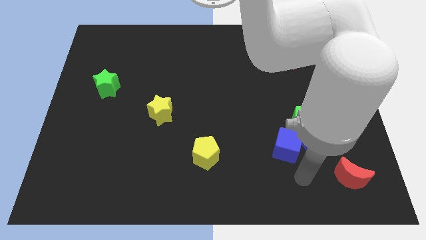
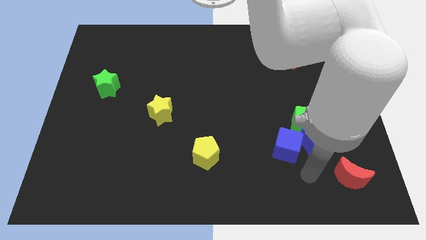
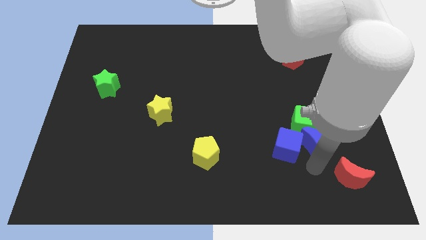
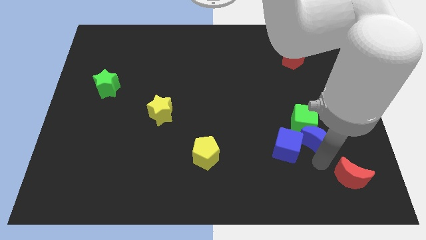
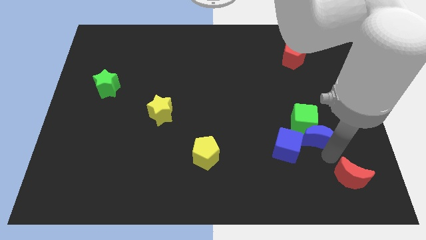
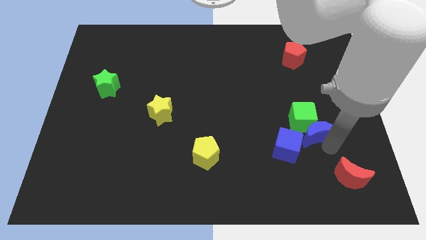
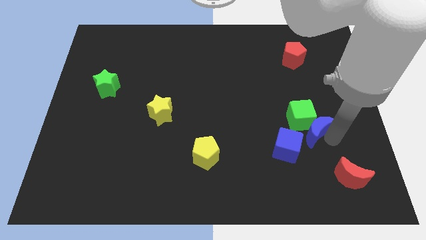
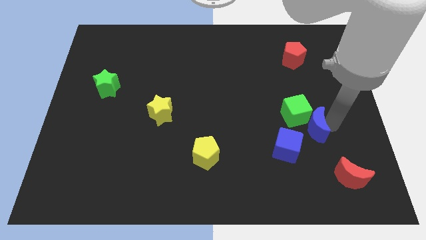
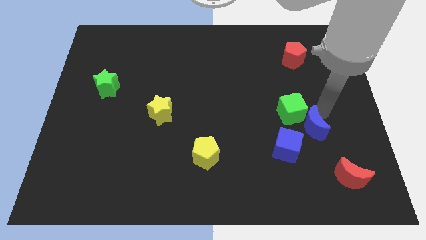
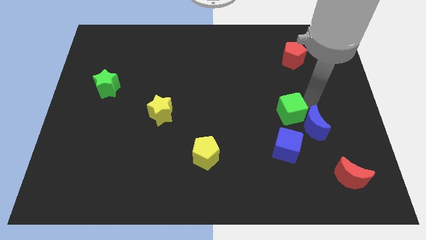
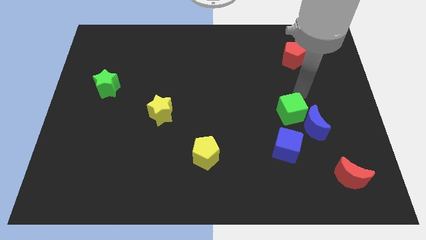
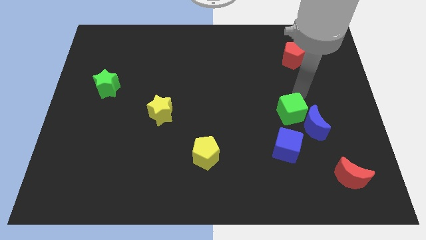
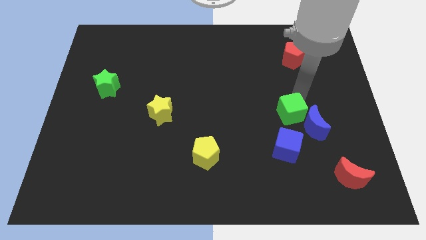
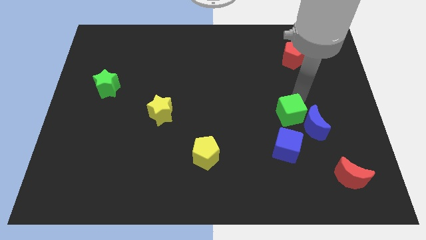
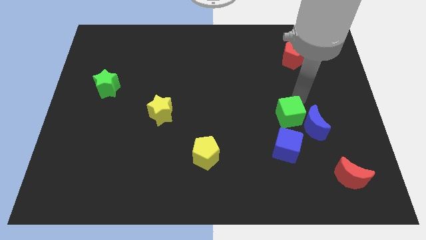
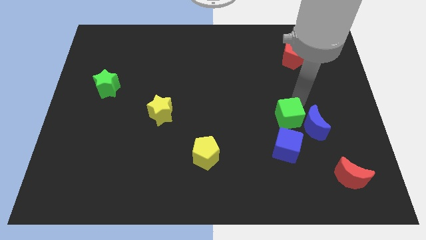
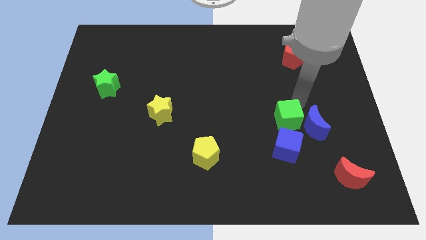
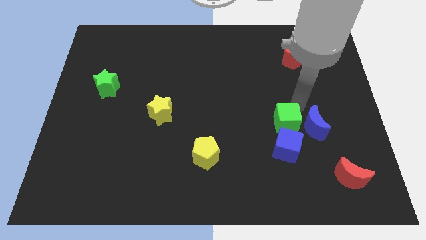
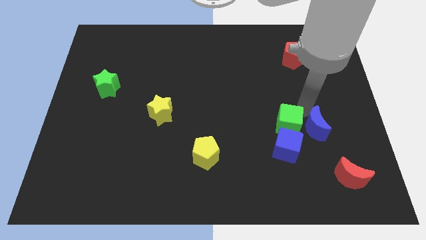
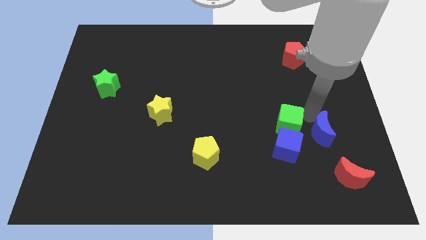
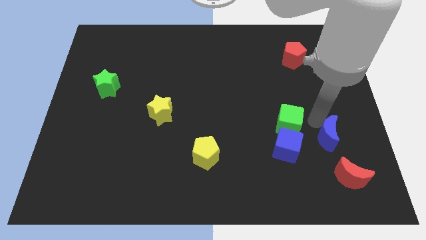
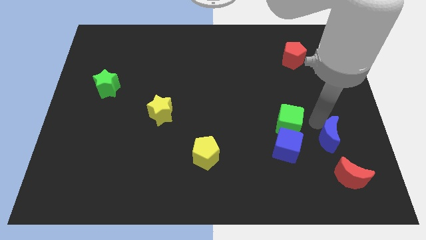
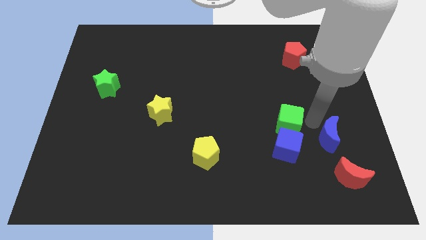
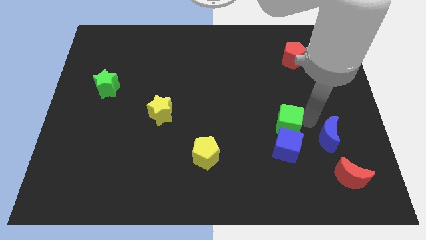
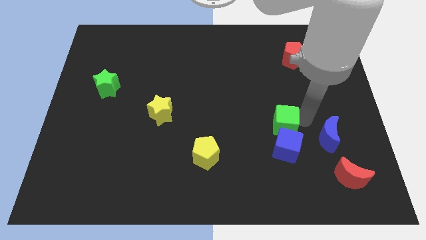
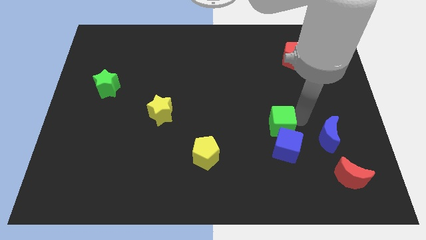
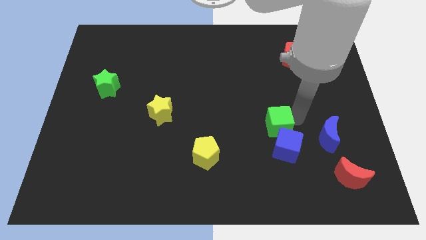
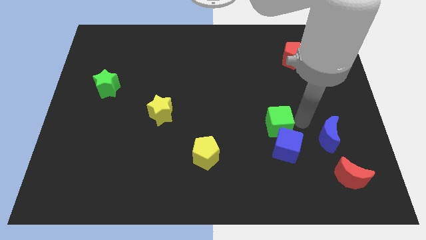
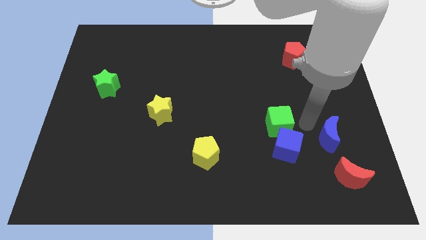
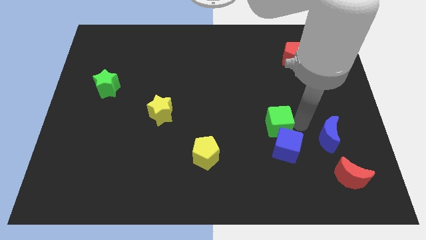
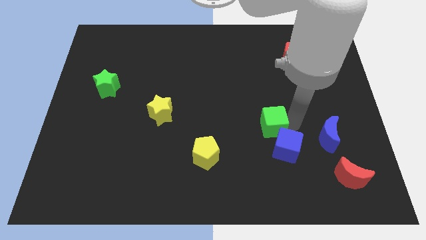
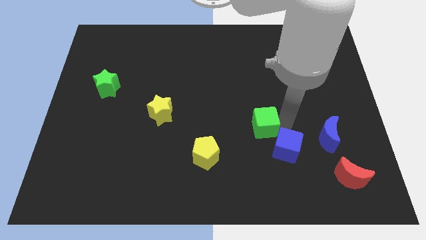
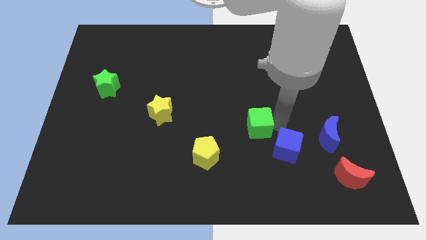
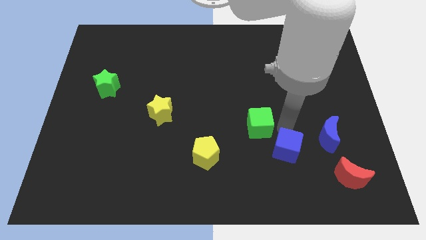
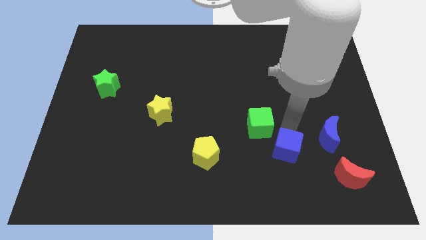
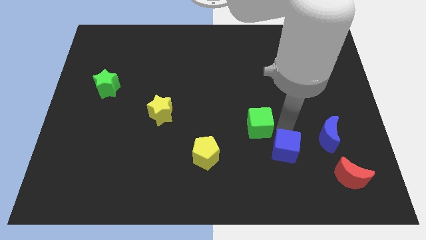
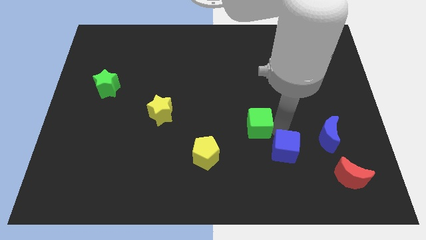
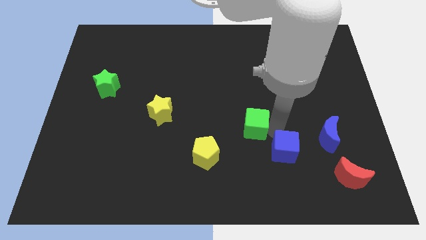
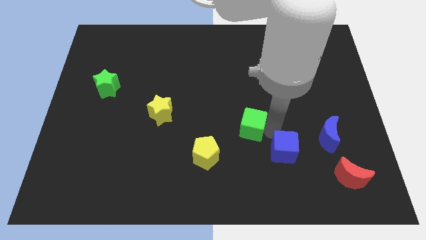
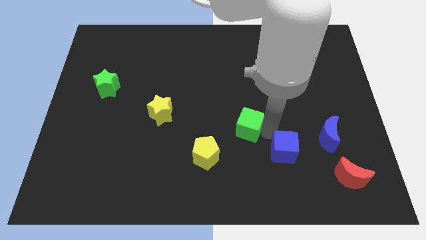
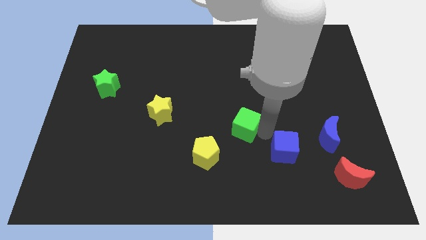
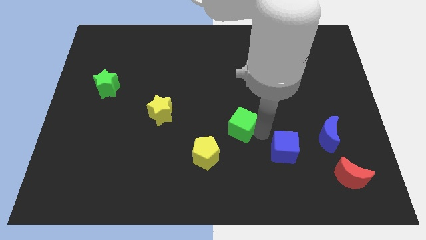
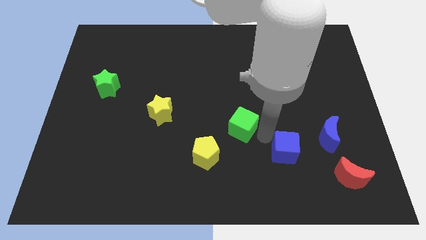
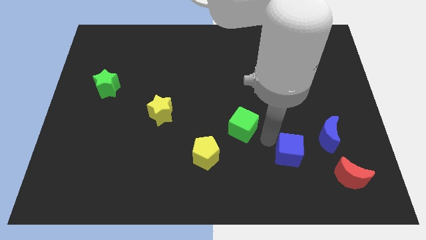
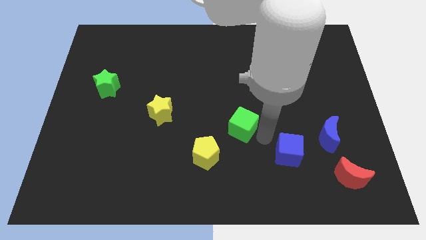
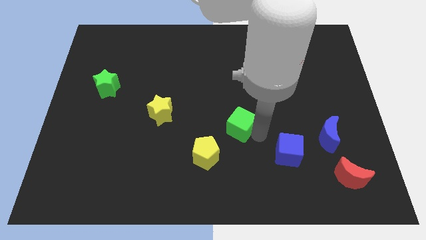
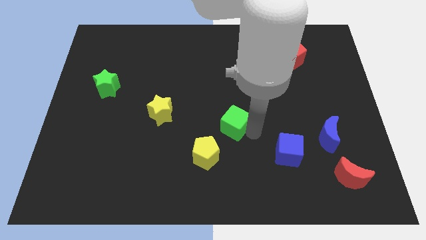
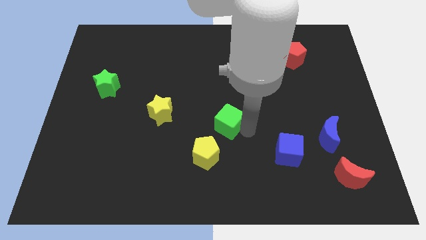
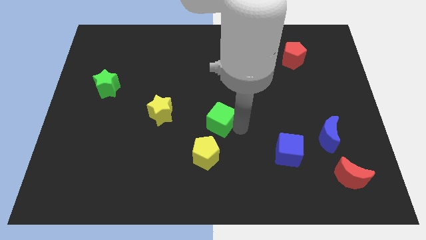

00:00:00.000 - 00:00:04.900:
slide the green cube to the top of the yellow pentagon

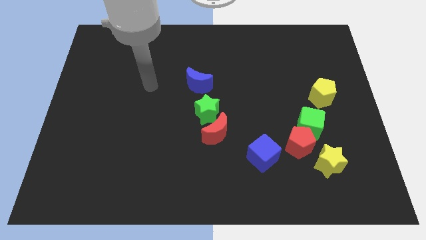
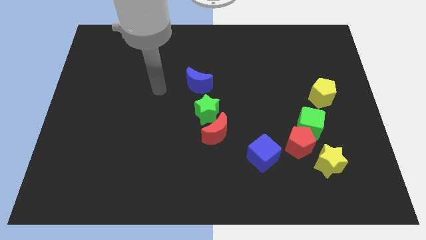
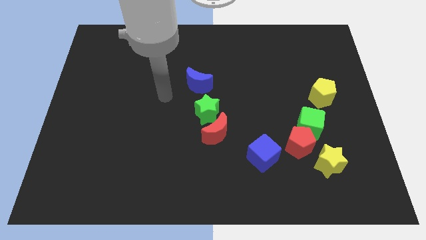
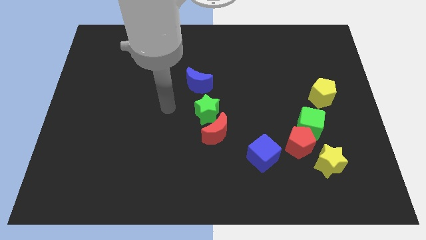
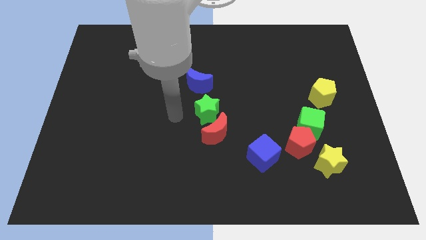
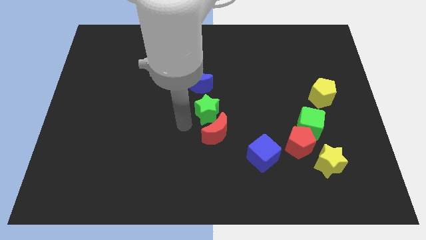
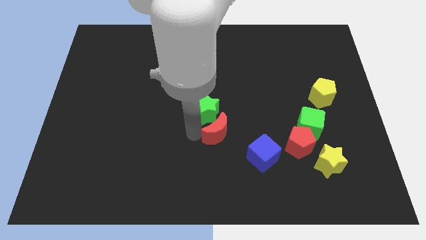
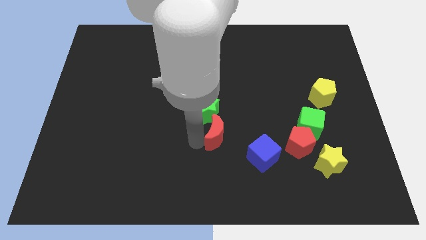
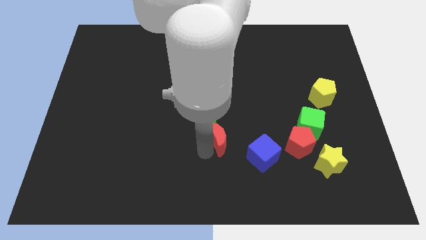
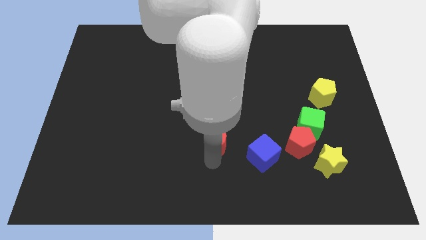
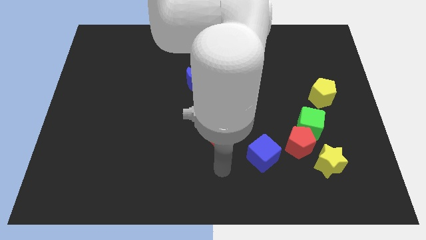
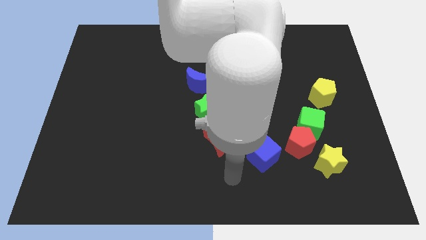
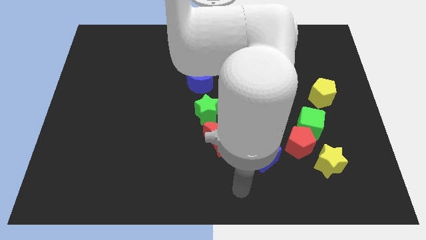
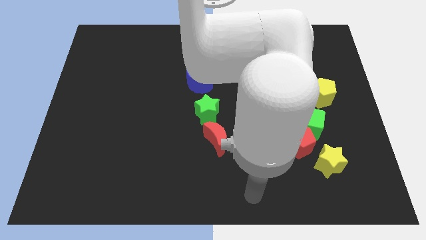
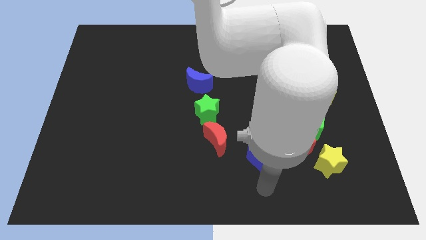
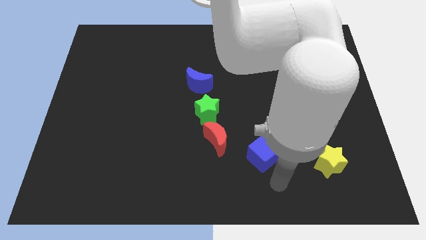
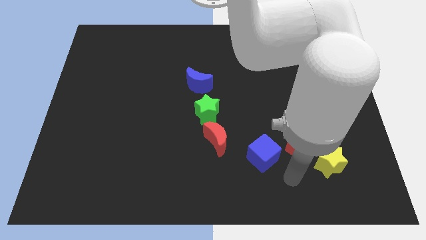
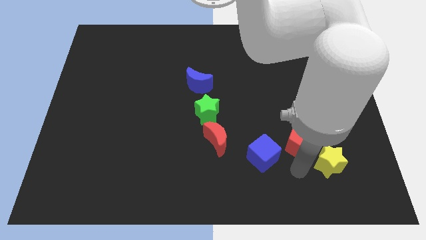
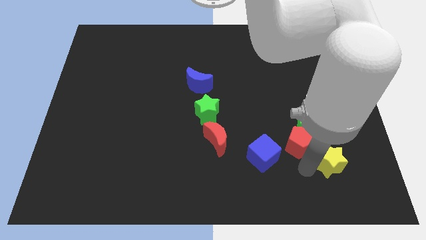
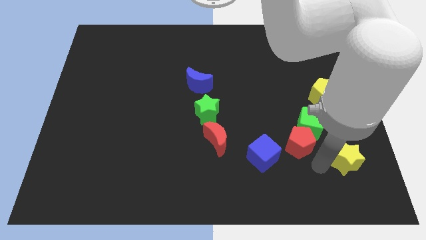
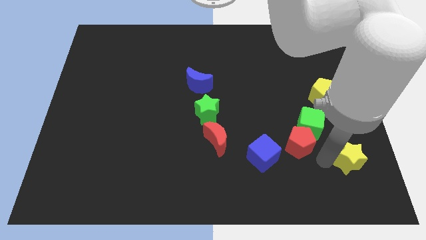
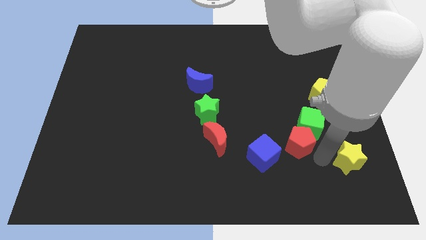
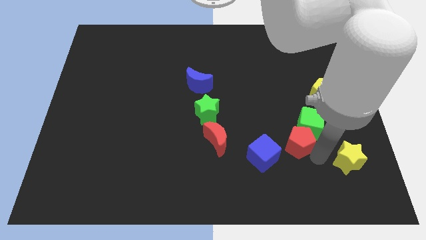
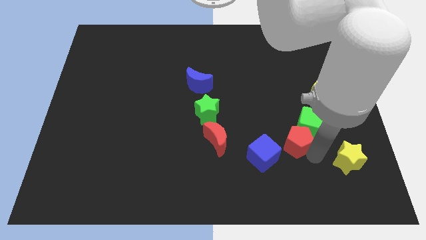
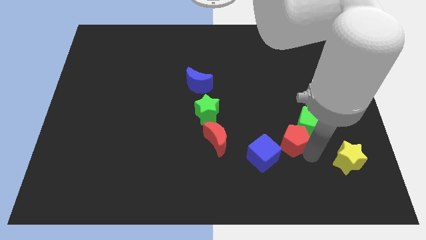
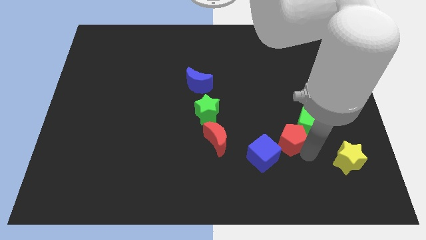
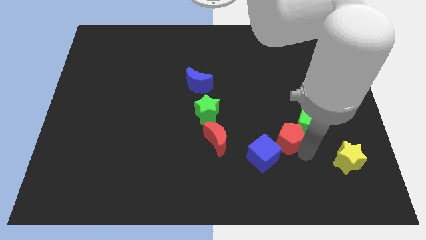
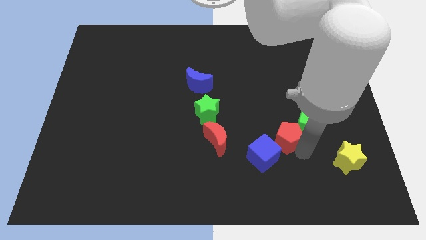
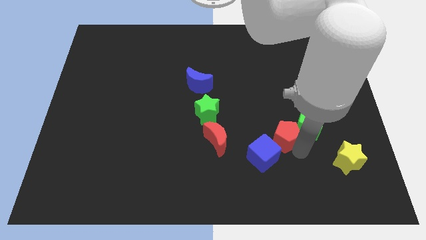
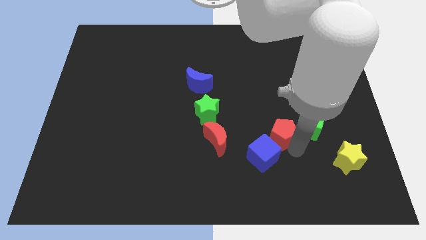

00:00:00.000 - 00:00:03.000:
slide the red pentagon to the top side of the blue cube
